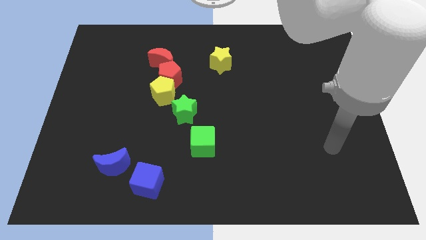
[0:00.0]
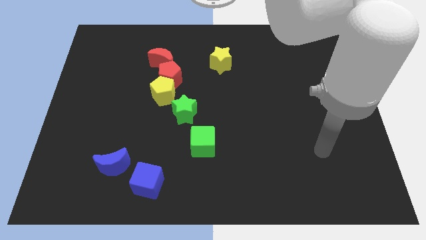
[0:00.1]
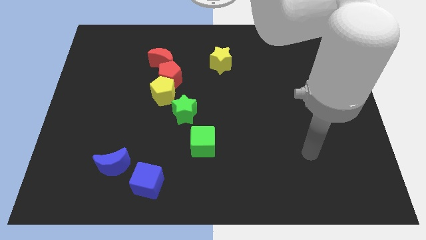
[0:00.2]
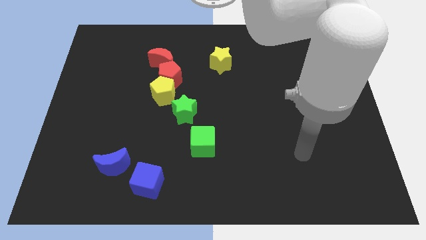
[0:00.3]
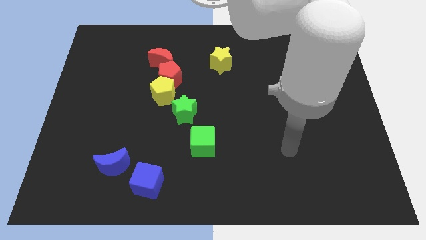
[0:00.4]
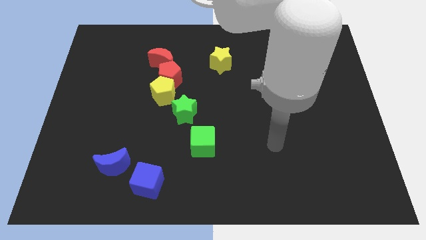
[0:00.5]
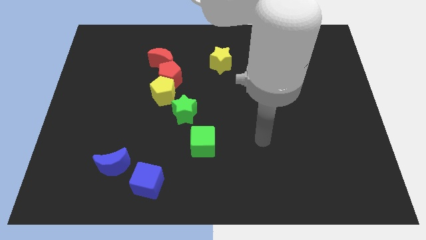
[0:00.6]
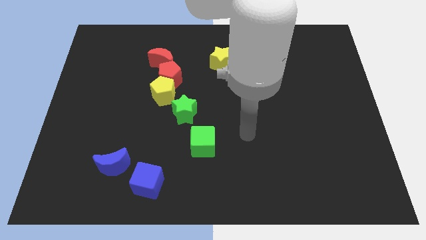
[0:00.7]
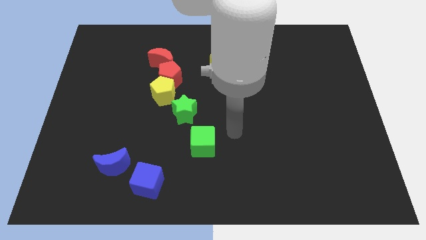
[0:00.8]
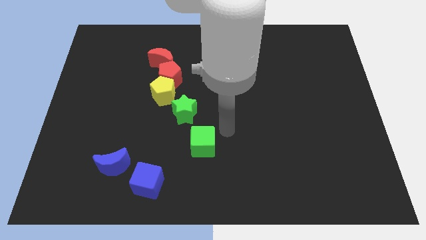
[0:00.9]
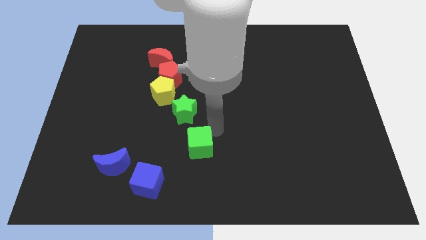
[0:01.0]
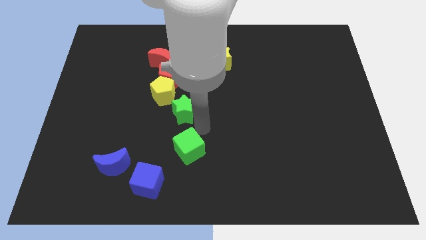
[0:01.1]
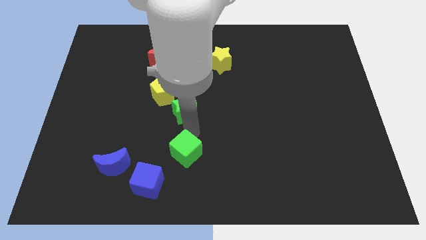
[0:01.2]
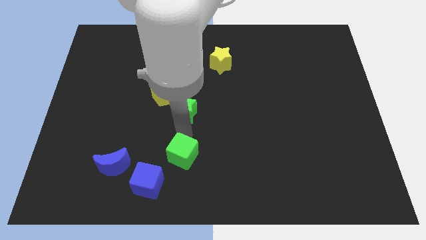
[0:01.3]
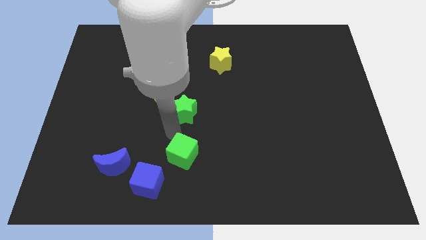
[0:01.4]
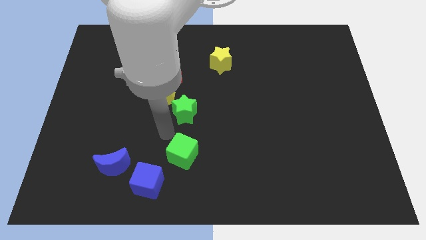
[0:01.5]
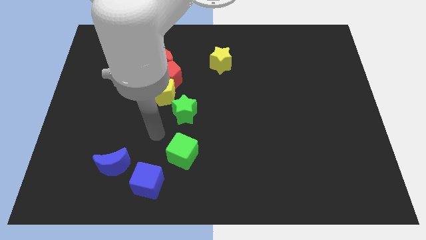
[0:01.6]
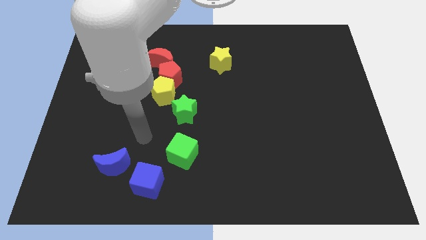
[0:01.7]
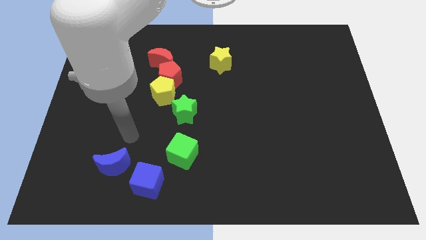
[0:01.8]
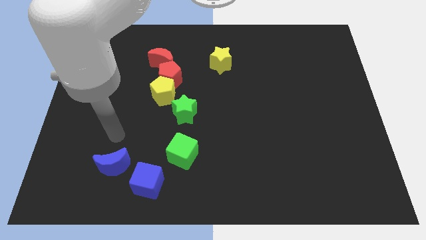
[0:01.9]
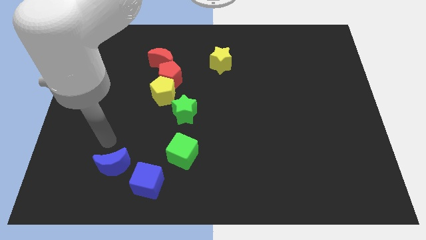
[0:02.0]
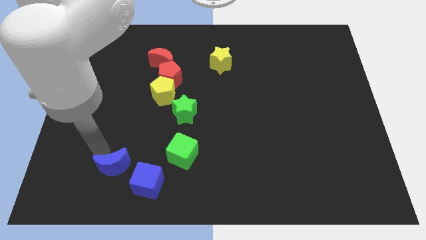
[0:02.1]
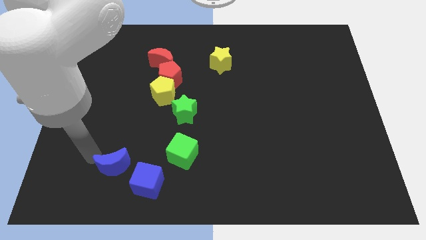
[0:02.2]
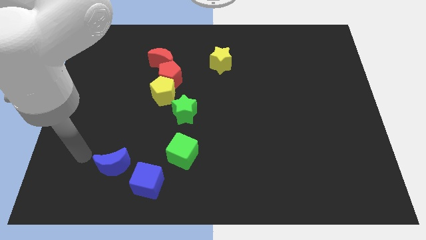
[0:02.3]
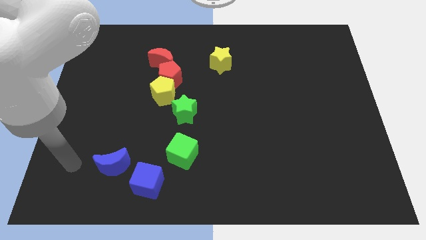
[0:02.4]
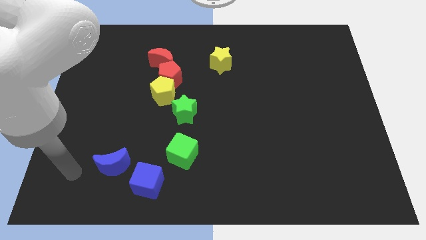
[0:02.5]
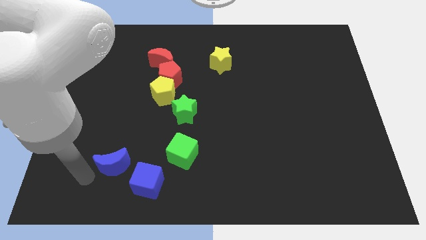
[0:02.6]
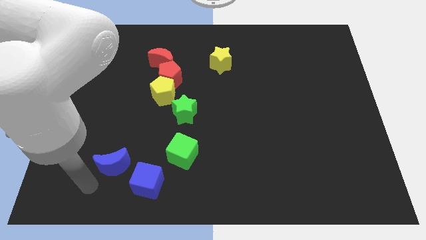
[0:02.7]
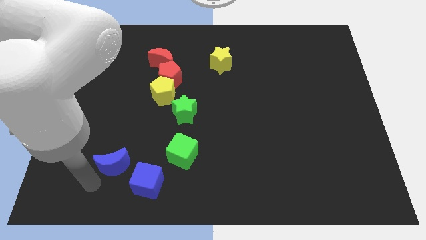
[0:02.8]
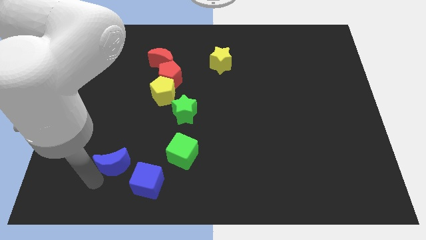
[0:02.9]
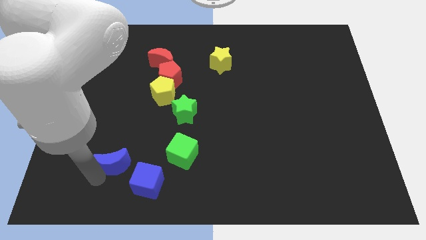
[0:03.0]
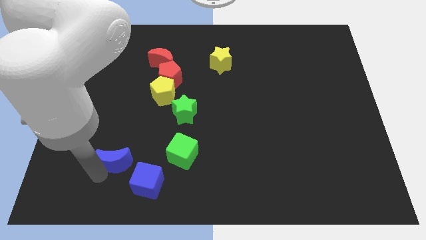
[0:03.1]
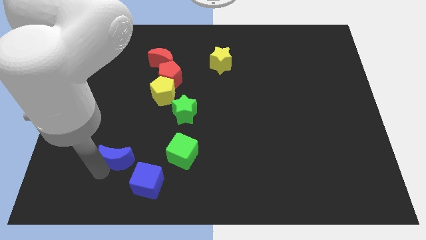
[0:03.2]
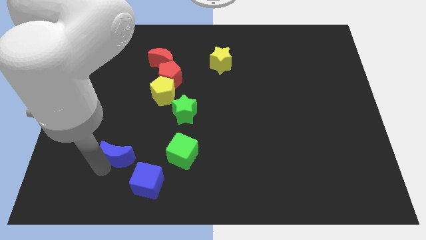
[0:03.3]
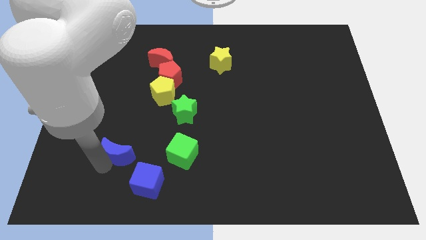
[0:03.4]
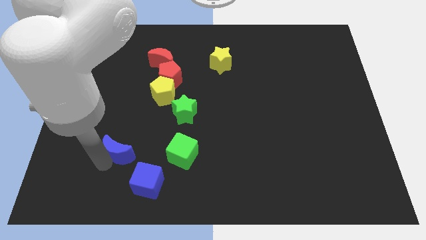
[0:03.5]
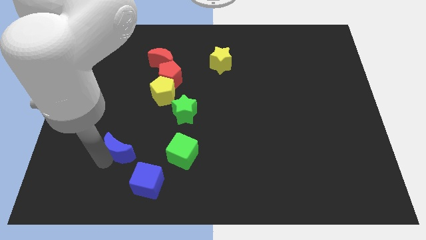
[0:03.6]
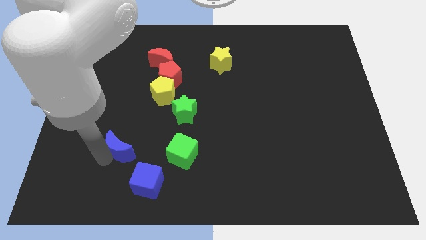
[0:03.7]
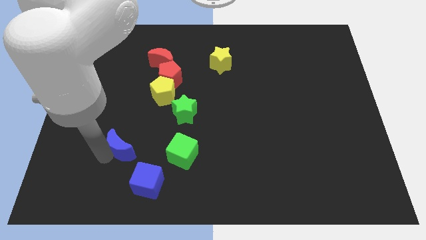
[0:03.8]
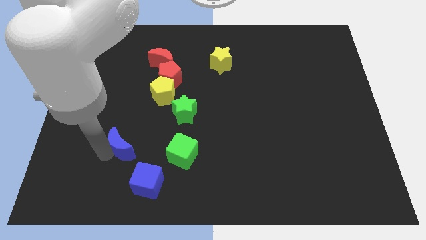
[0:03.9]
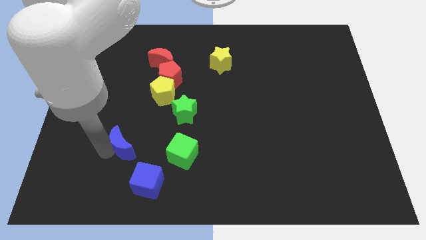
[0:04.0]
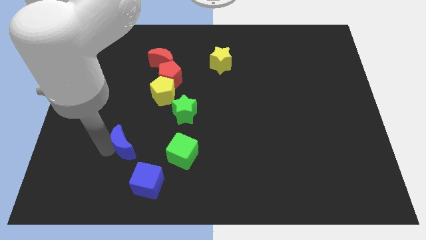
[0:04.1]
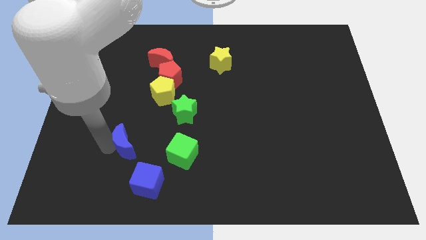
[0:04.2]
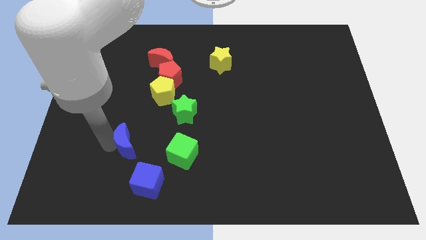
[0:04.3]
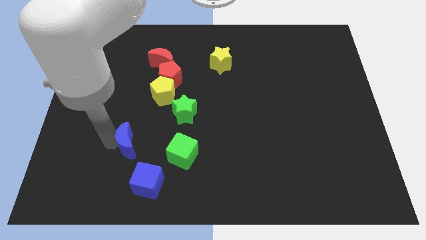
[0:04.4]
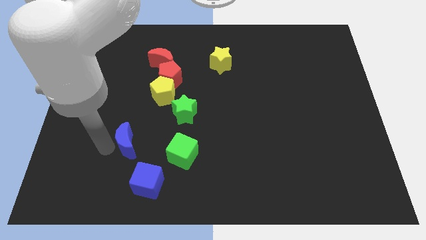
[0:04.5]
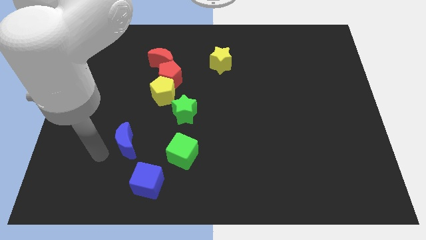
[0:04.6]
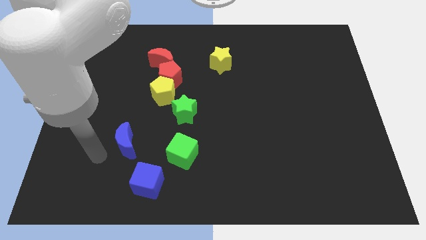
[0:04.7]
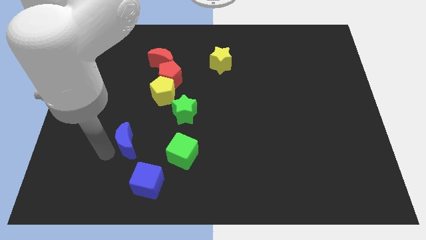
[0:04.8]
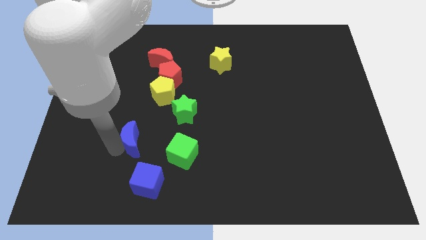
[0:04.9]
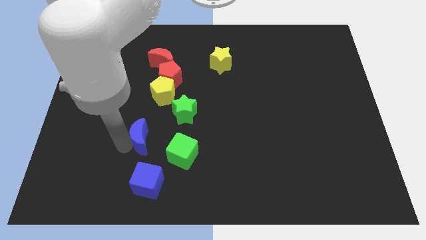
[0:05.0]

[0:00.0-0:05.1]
move the blue moon to the bottom side of the yellow pentagon

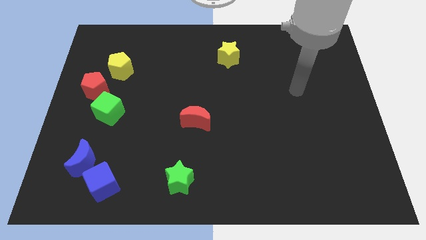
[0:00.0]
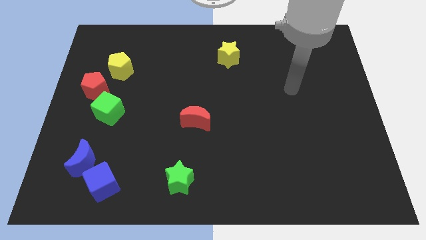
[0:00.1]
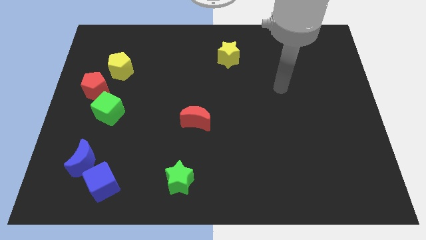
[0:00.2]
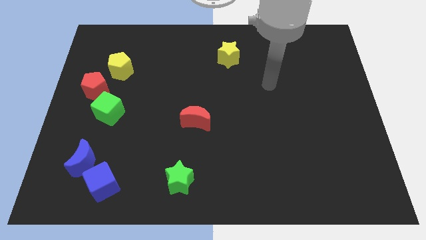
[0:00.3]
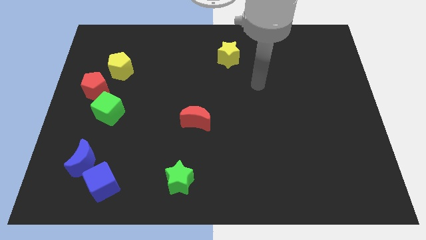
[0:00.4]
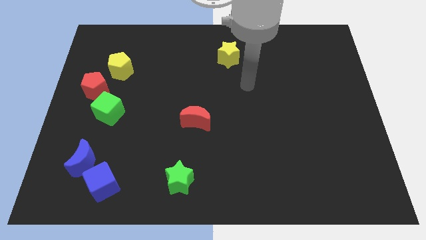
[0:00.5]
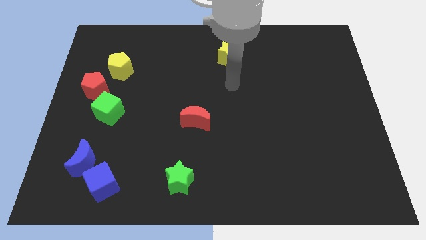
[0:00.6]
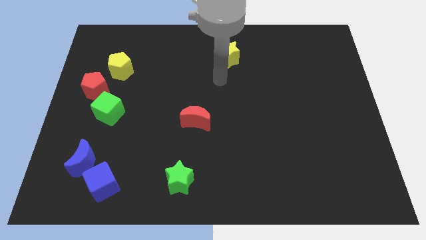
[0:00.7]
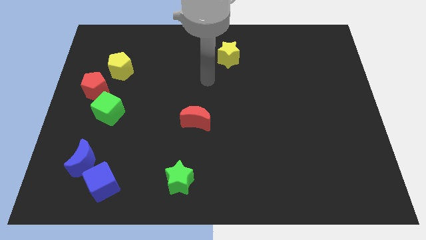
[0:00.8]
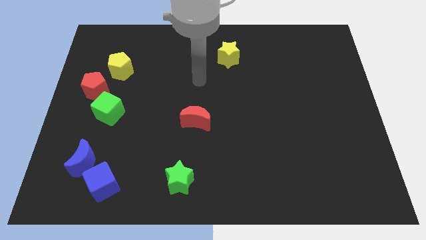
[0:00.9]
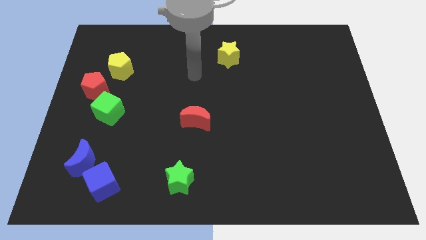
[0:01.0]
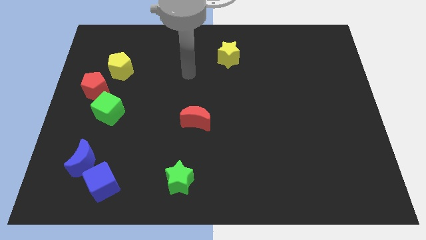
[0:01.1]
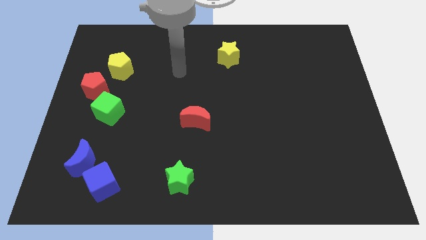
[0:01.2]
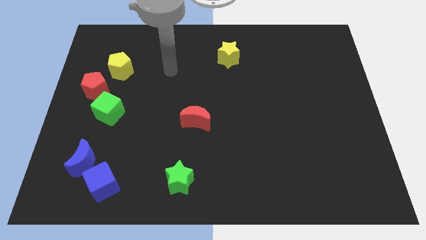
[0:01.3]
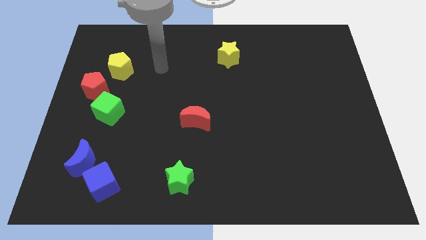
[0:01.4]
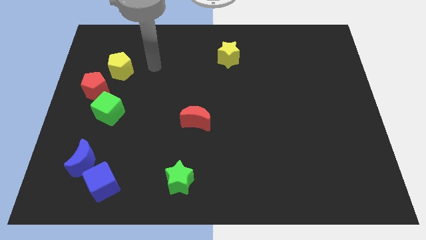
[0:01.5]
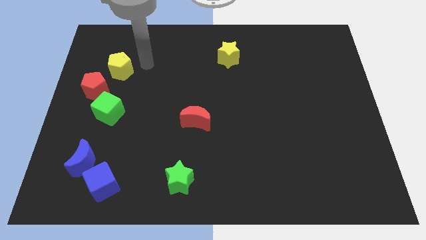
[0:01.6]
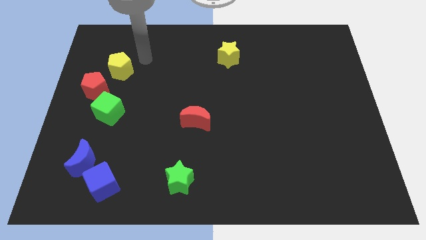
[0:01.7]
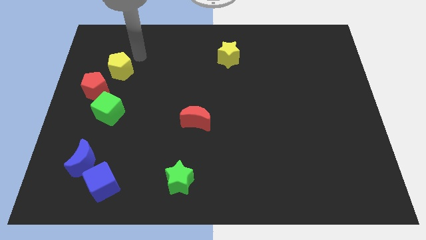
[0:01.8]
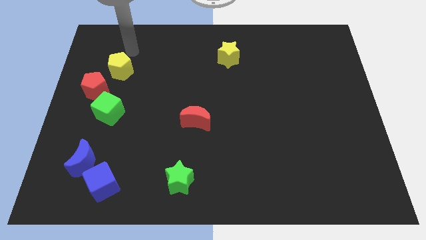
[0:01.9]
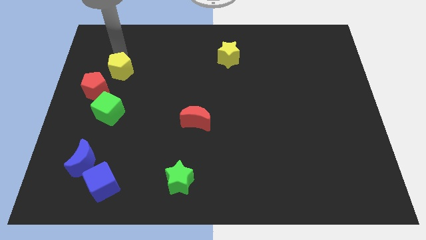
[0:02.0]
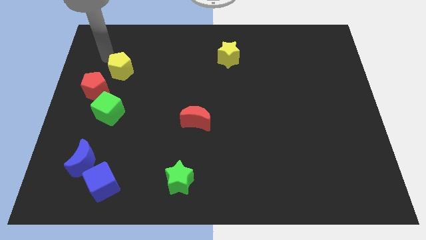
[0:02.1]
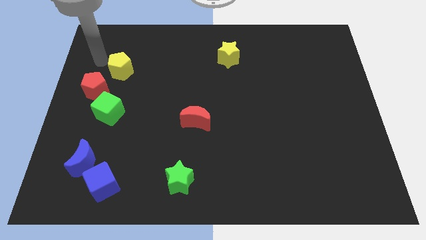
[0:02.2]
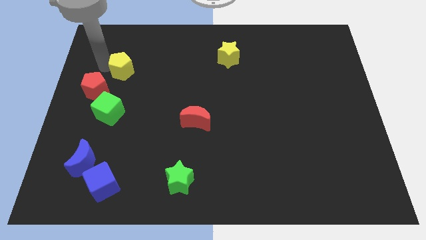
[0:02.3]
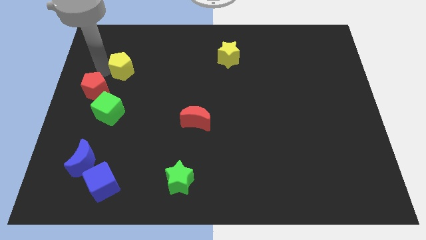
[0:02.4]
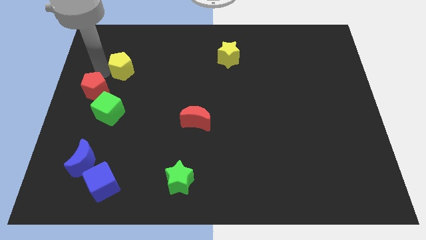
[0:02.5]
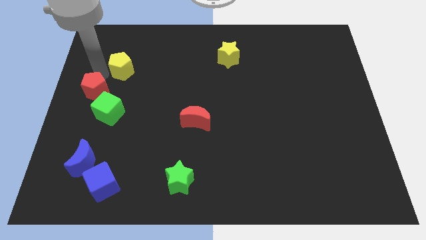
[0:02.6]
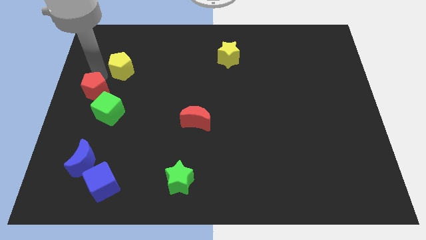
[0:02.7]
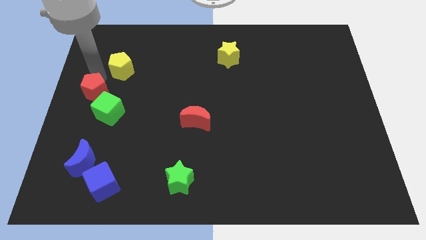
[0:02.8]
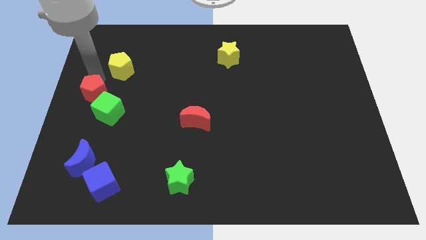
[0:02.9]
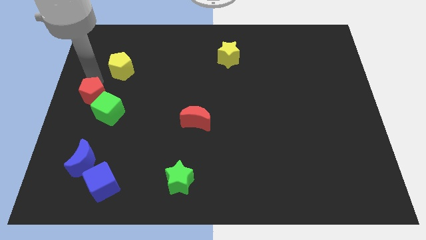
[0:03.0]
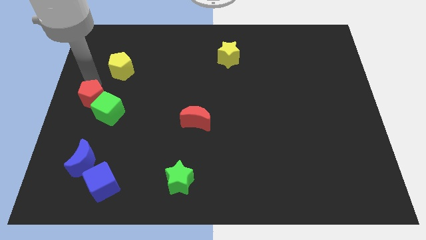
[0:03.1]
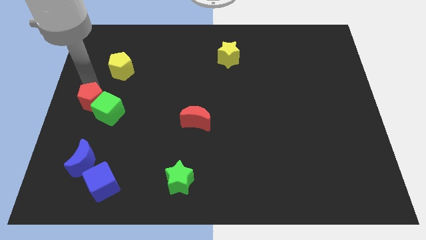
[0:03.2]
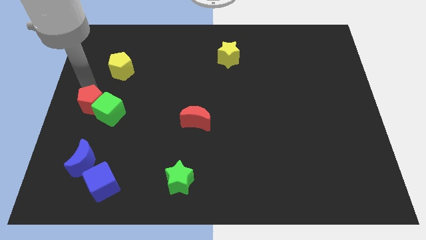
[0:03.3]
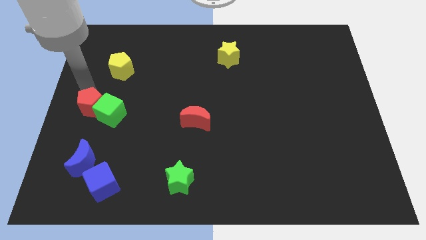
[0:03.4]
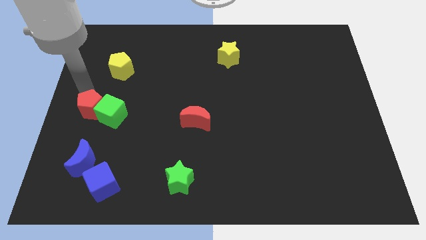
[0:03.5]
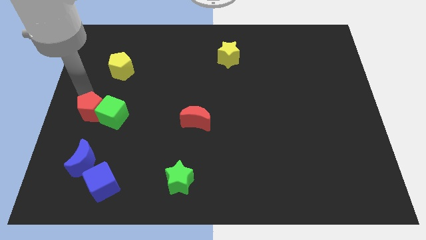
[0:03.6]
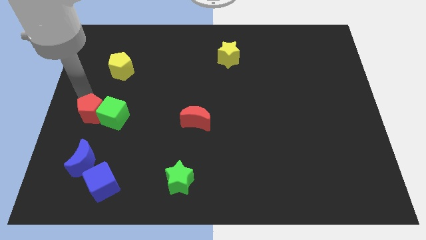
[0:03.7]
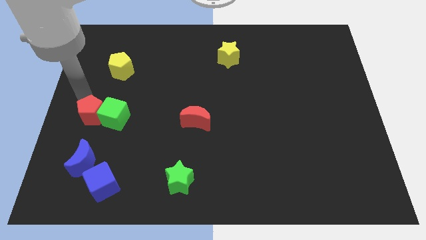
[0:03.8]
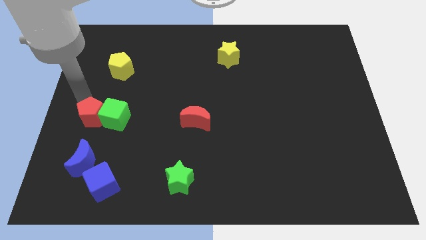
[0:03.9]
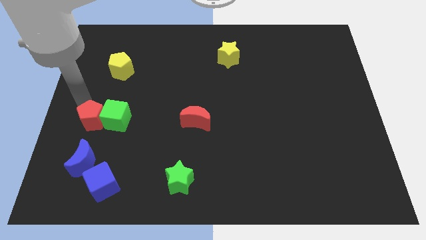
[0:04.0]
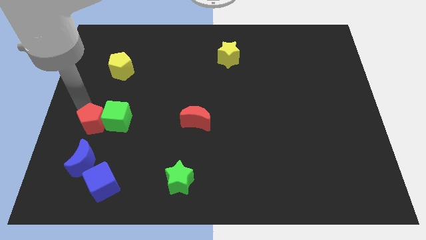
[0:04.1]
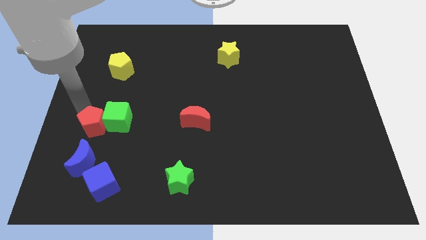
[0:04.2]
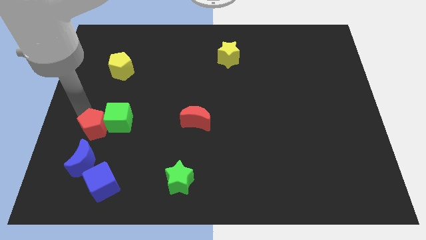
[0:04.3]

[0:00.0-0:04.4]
push the red pentagon to the top of the blue cube
